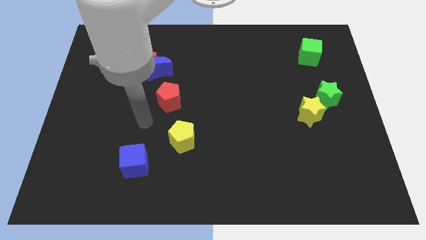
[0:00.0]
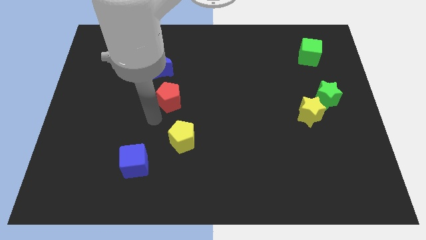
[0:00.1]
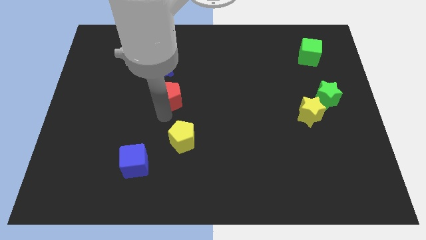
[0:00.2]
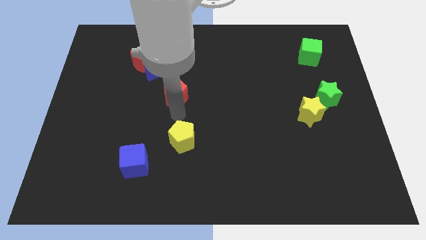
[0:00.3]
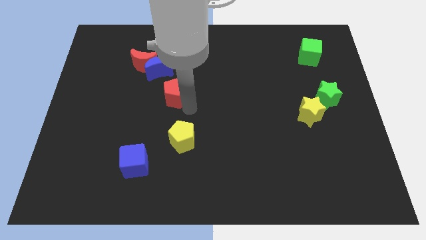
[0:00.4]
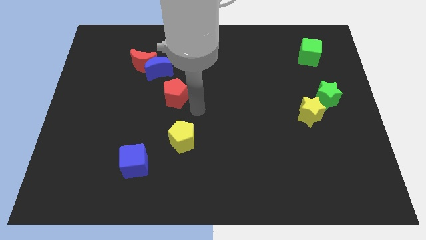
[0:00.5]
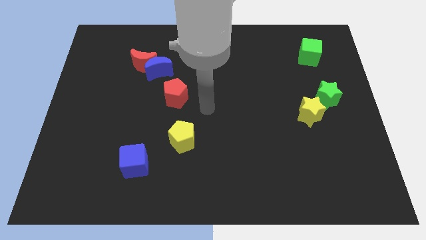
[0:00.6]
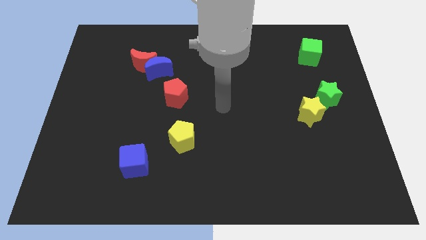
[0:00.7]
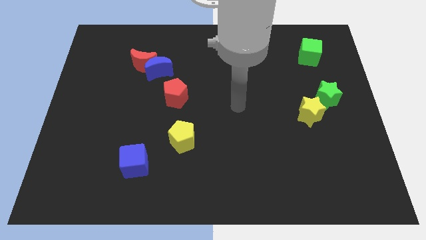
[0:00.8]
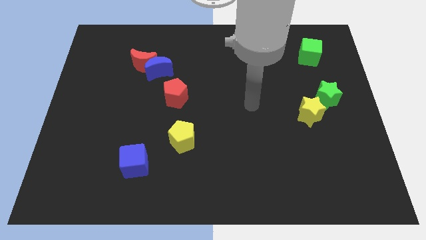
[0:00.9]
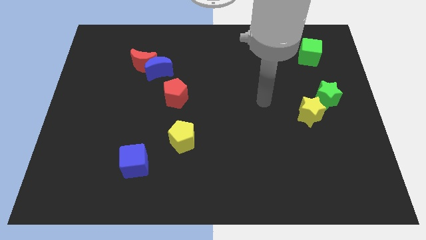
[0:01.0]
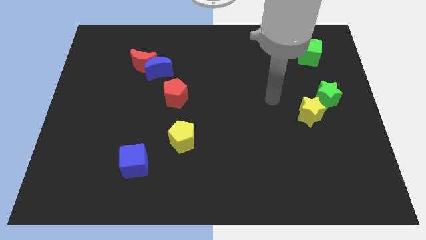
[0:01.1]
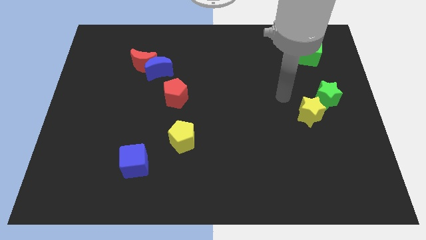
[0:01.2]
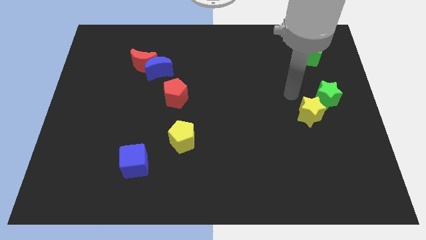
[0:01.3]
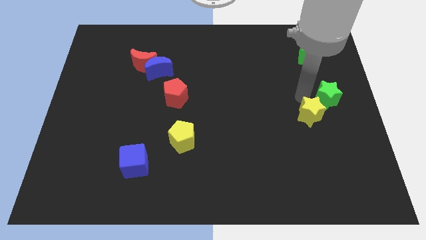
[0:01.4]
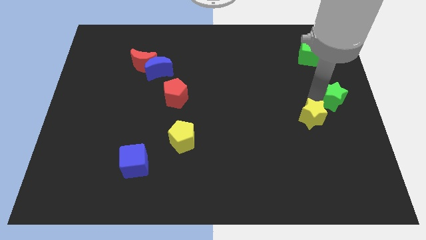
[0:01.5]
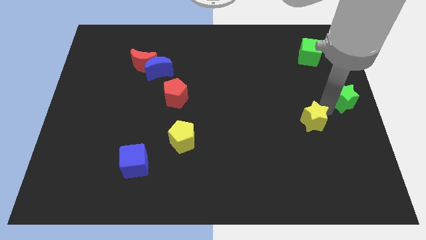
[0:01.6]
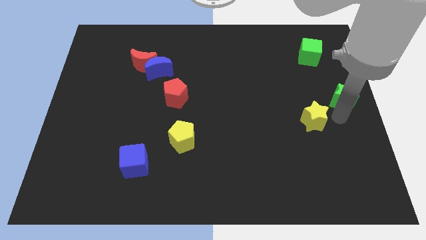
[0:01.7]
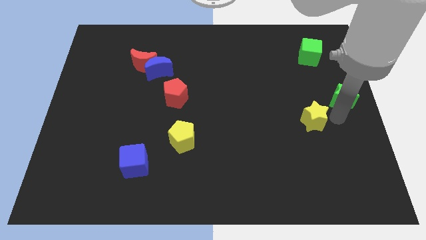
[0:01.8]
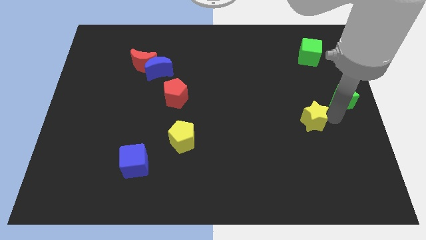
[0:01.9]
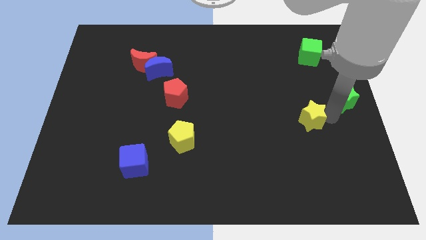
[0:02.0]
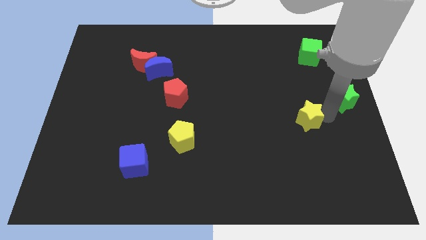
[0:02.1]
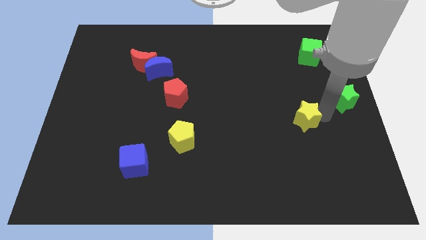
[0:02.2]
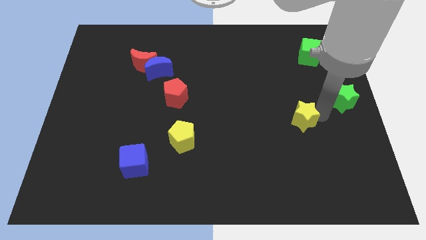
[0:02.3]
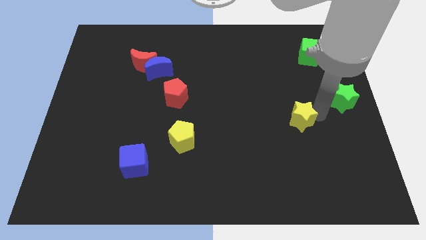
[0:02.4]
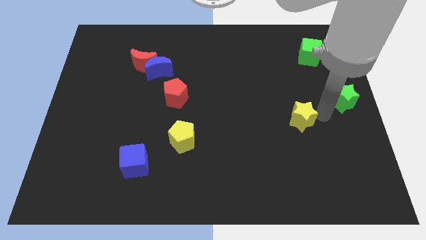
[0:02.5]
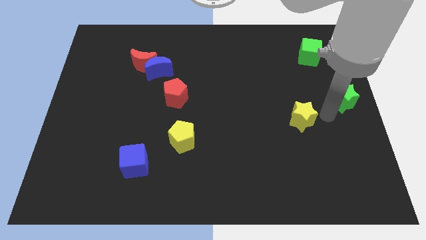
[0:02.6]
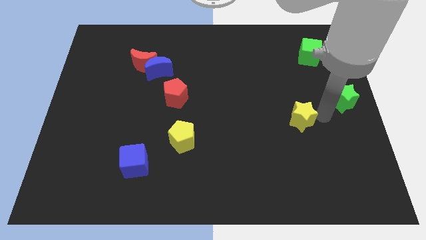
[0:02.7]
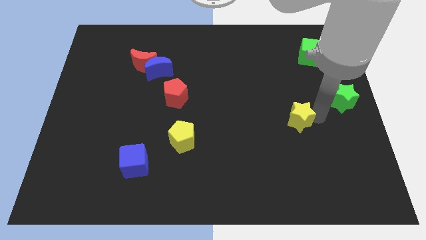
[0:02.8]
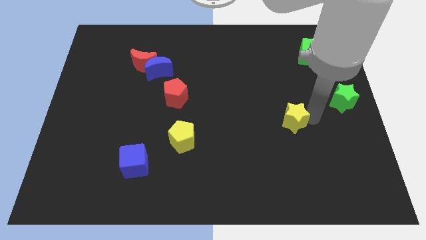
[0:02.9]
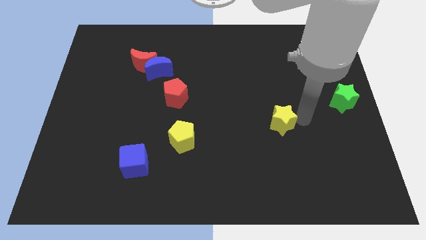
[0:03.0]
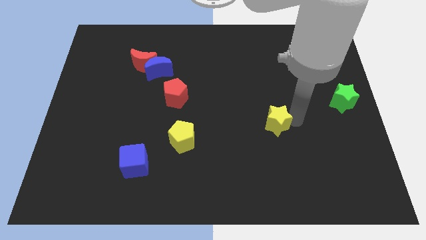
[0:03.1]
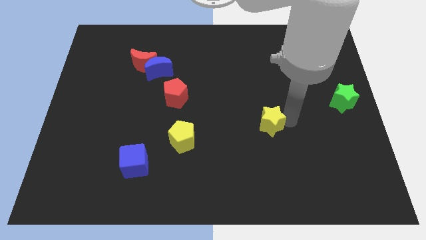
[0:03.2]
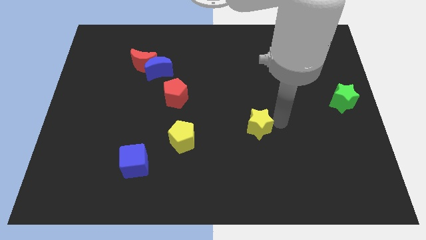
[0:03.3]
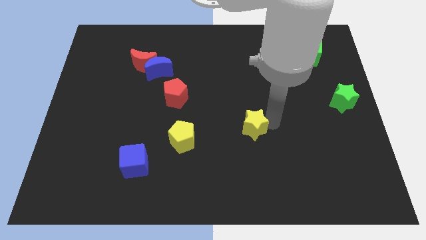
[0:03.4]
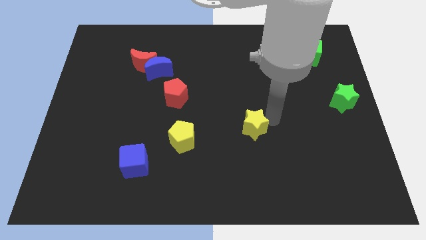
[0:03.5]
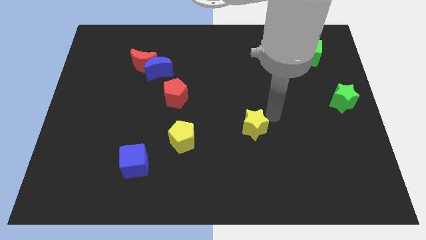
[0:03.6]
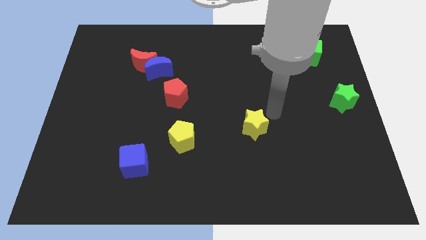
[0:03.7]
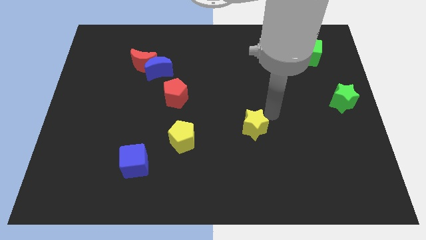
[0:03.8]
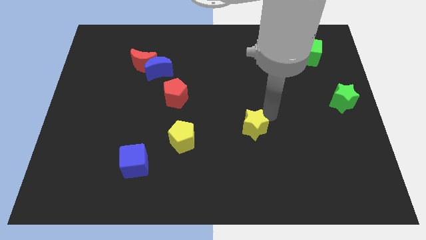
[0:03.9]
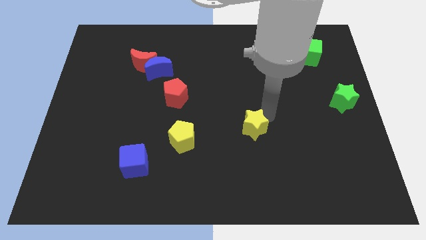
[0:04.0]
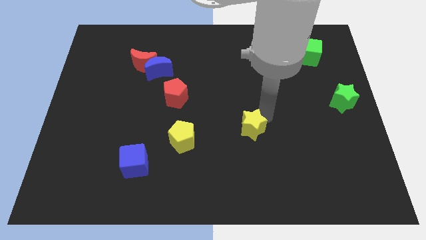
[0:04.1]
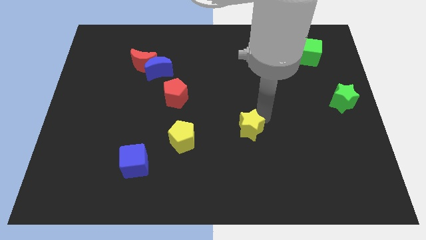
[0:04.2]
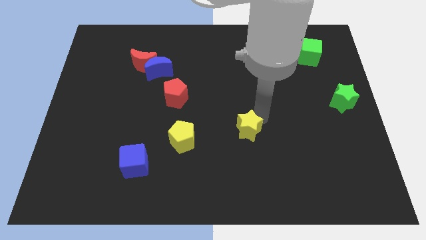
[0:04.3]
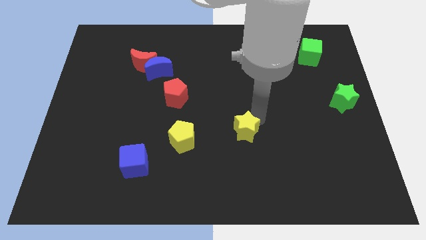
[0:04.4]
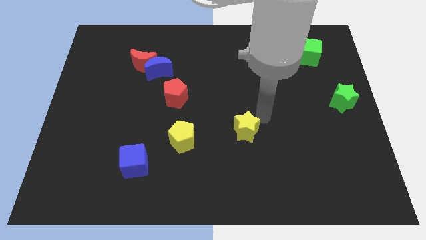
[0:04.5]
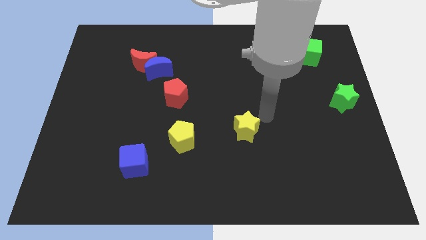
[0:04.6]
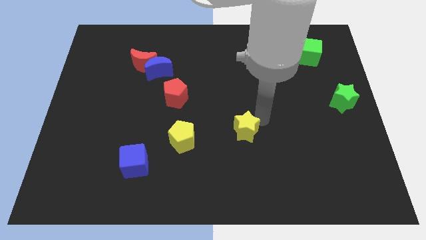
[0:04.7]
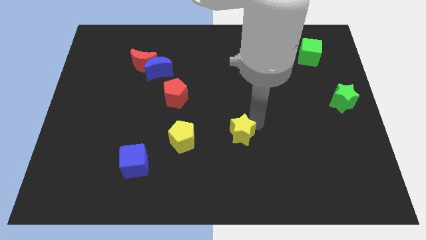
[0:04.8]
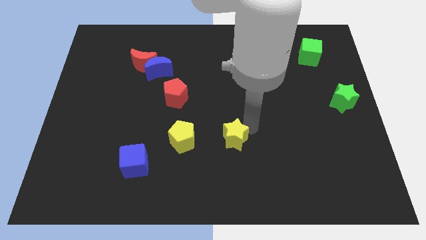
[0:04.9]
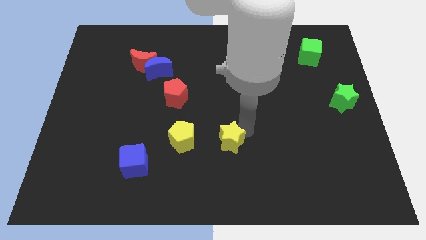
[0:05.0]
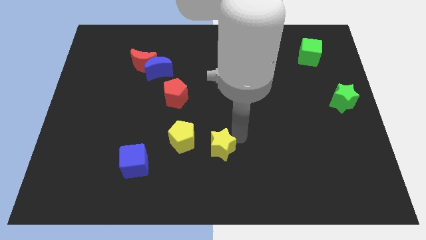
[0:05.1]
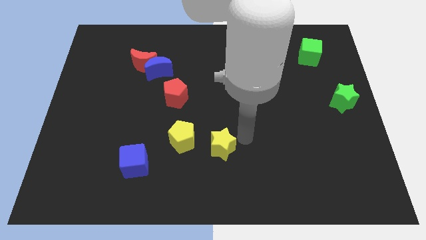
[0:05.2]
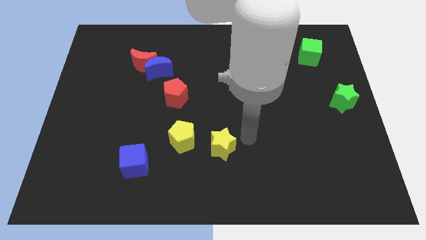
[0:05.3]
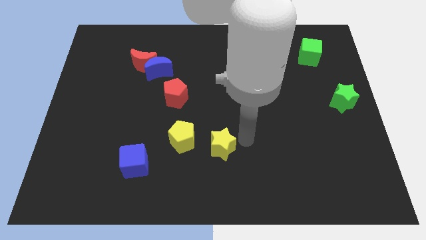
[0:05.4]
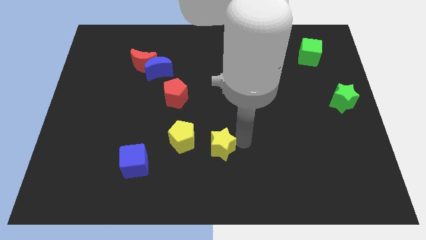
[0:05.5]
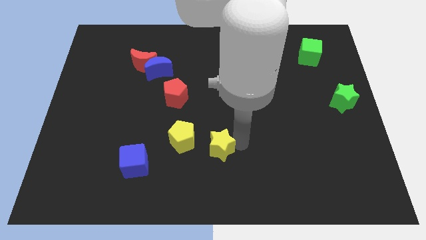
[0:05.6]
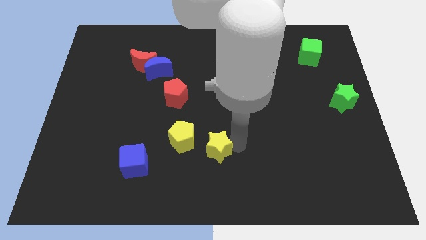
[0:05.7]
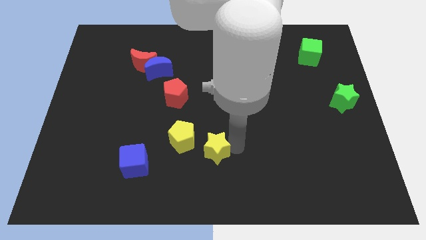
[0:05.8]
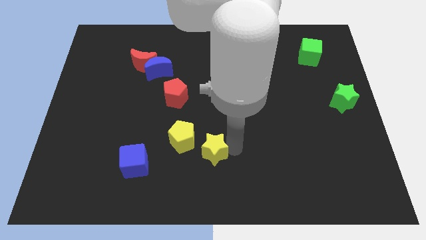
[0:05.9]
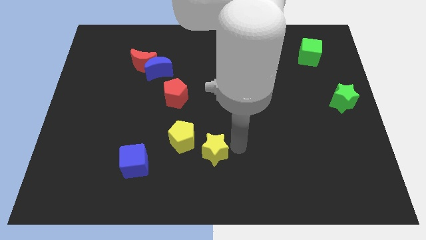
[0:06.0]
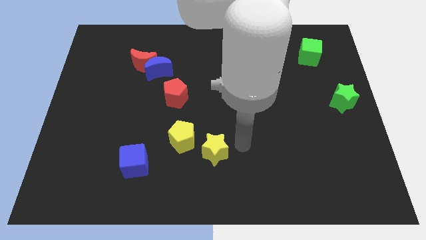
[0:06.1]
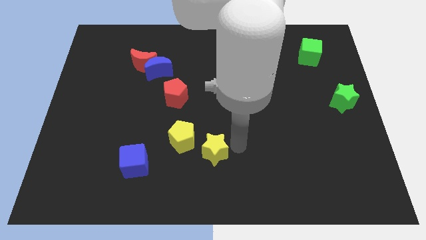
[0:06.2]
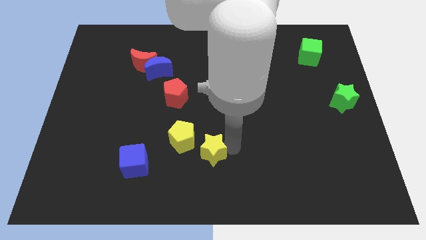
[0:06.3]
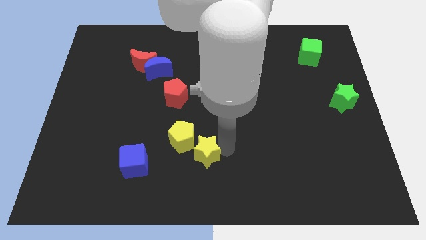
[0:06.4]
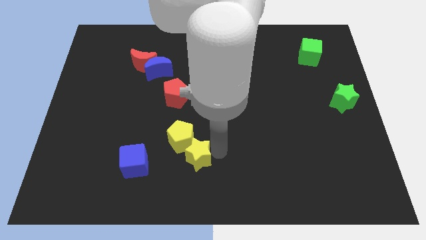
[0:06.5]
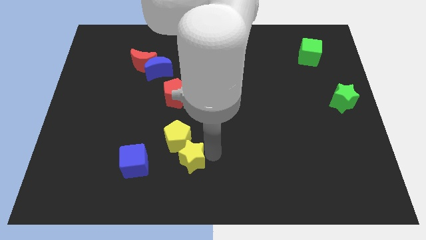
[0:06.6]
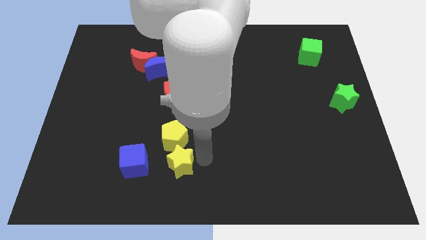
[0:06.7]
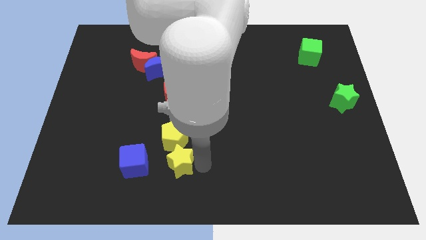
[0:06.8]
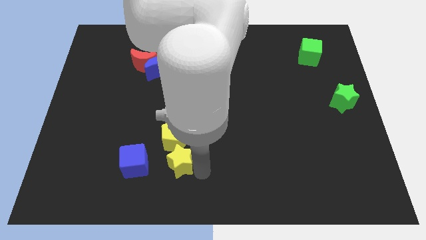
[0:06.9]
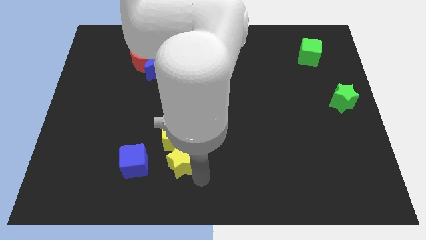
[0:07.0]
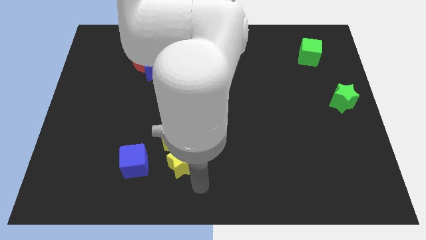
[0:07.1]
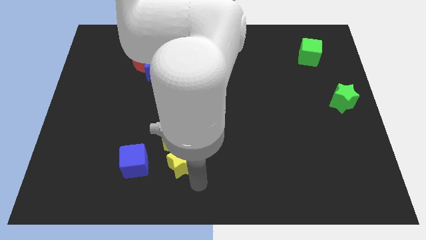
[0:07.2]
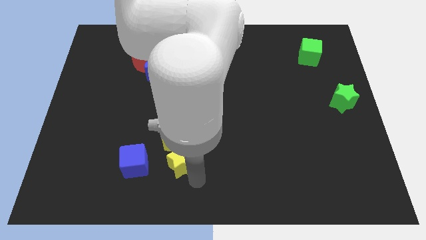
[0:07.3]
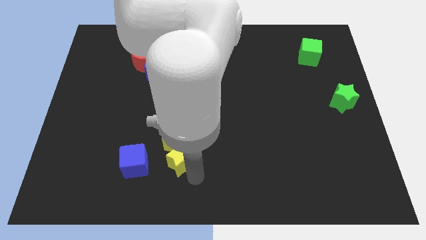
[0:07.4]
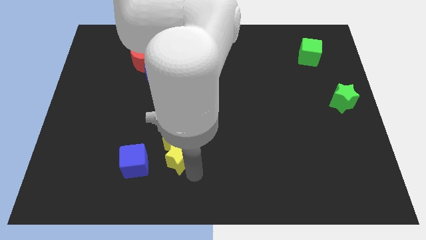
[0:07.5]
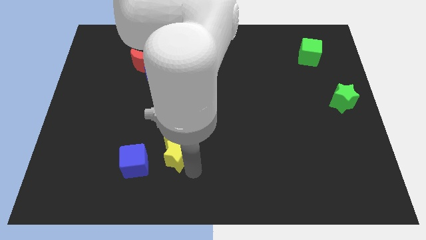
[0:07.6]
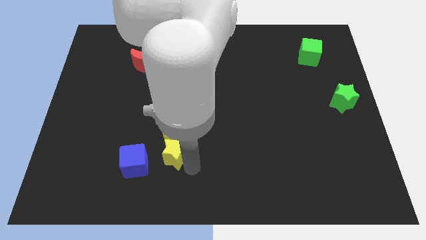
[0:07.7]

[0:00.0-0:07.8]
move the yellow star diagonally up and to the right of the blue cube
